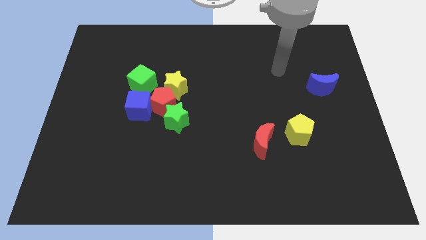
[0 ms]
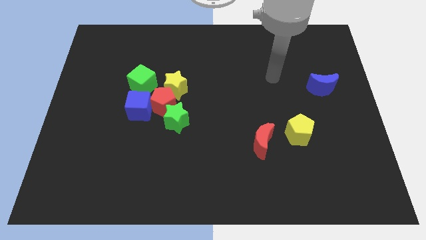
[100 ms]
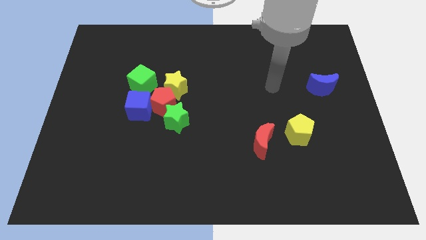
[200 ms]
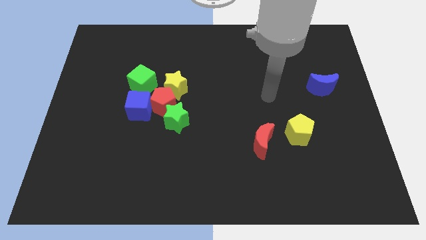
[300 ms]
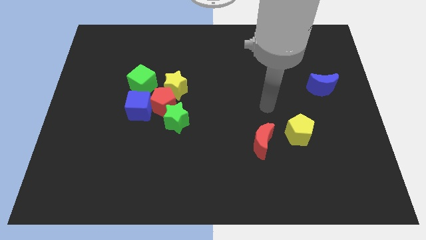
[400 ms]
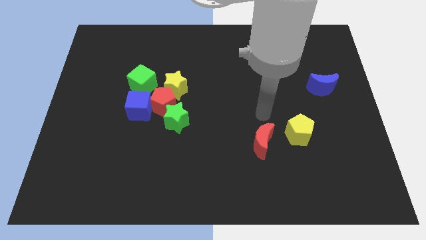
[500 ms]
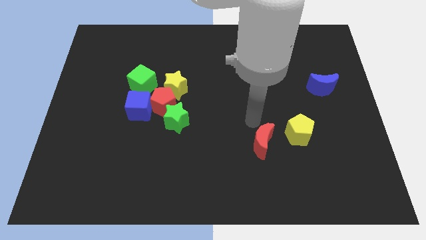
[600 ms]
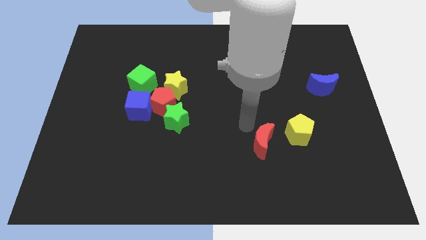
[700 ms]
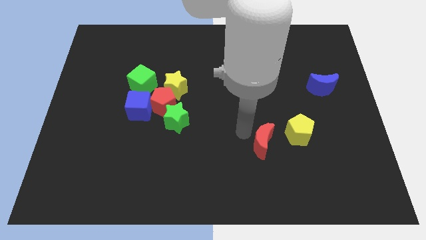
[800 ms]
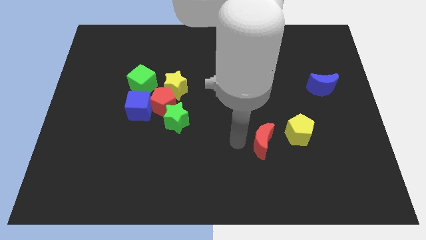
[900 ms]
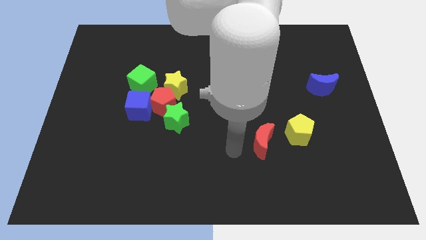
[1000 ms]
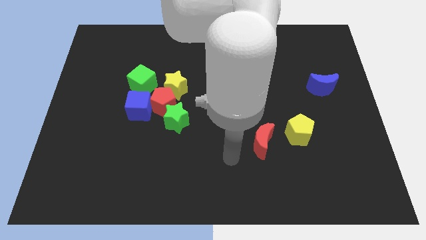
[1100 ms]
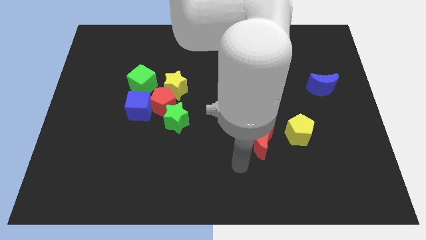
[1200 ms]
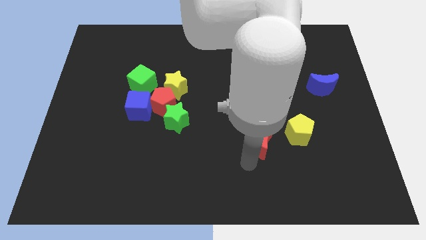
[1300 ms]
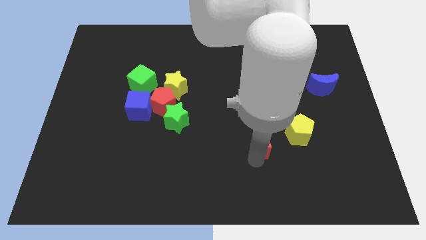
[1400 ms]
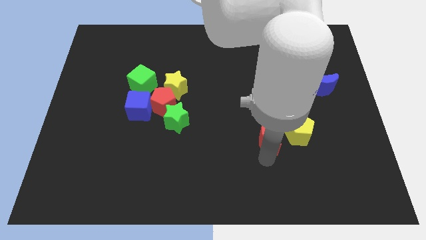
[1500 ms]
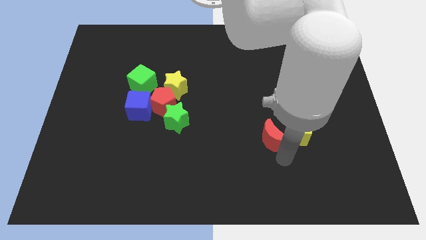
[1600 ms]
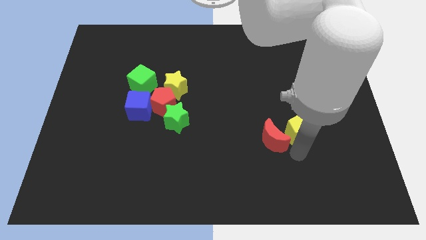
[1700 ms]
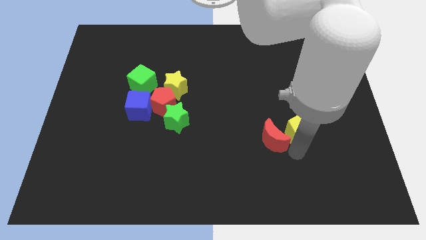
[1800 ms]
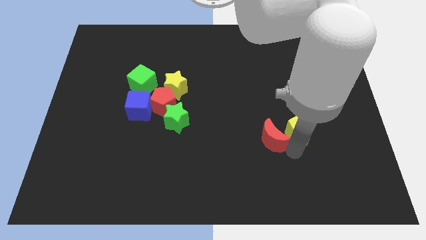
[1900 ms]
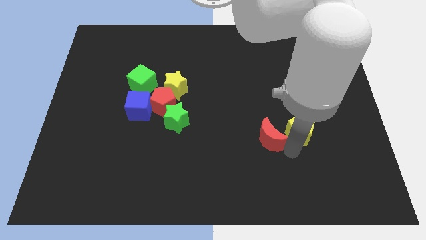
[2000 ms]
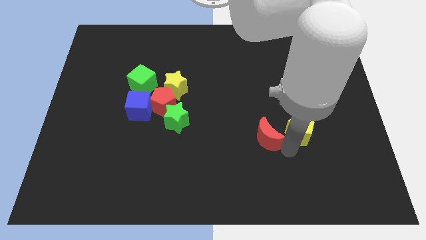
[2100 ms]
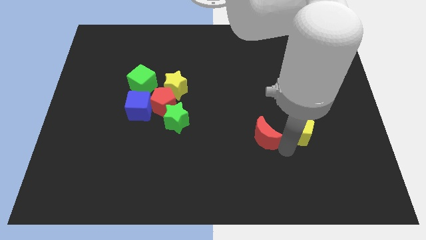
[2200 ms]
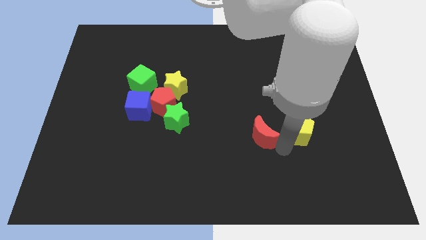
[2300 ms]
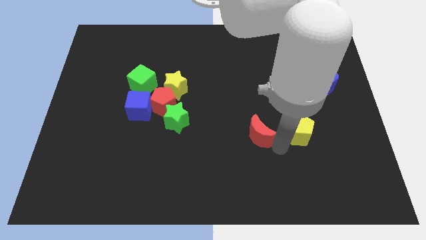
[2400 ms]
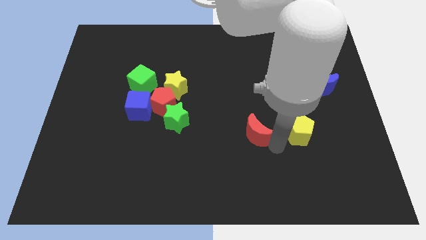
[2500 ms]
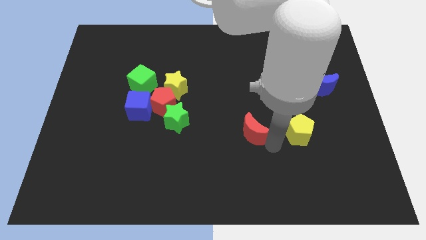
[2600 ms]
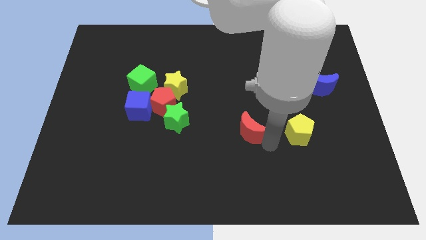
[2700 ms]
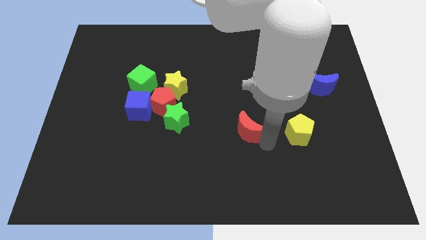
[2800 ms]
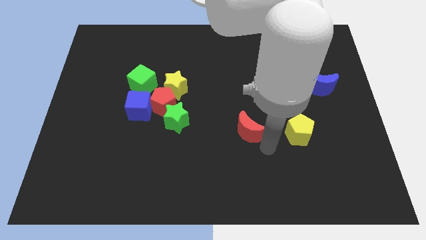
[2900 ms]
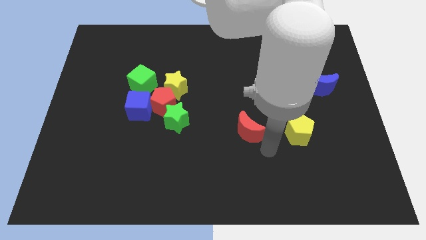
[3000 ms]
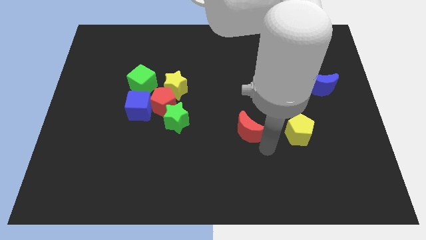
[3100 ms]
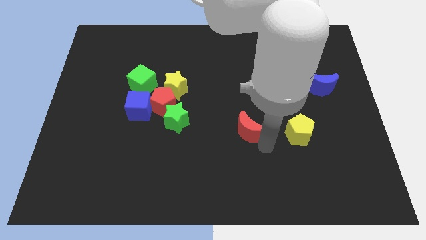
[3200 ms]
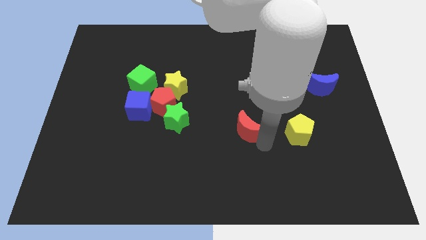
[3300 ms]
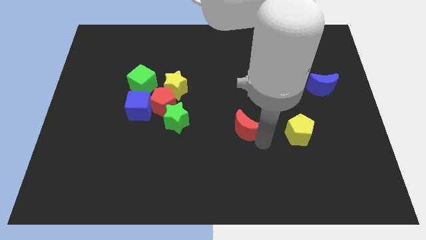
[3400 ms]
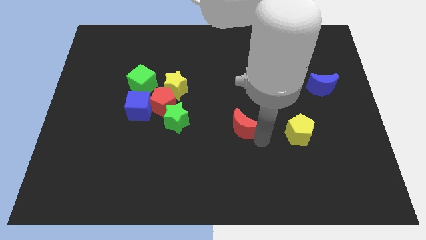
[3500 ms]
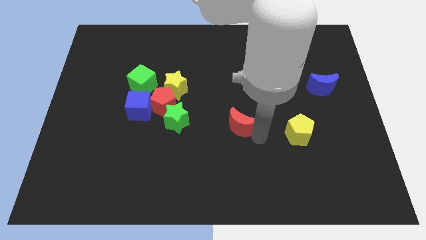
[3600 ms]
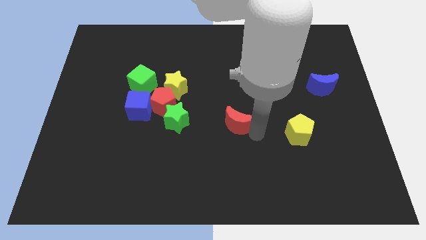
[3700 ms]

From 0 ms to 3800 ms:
move the red moon up and left diagonally a bit

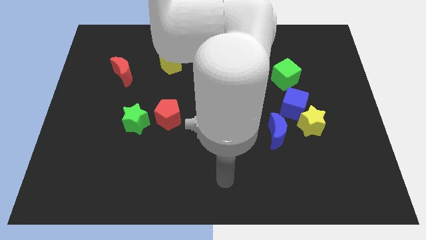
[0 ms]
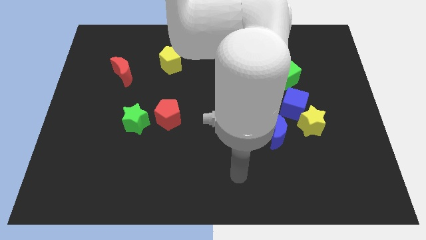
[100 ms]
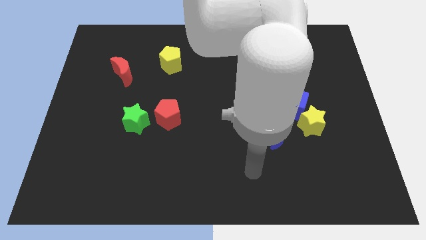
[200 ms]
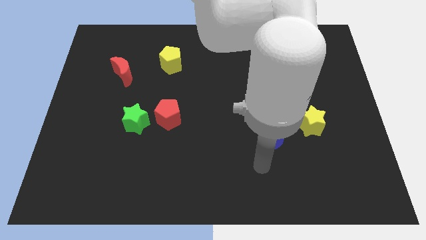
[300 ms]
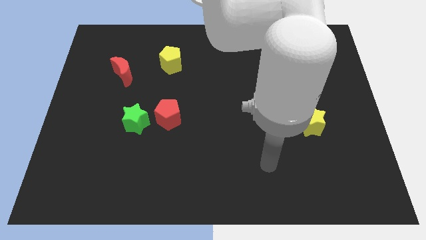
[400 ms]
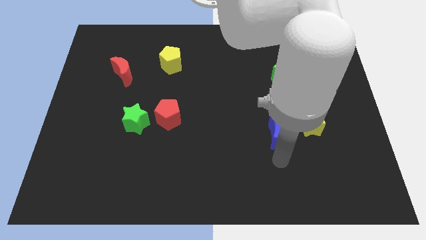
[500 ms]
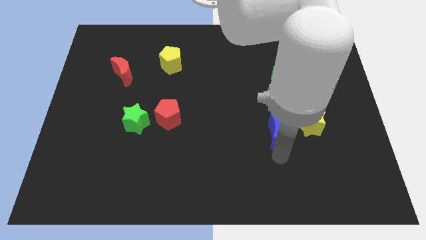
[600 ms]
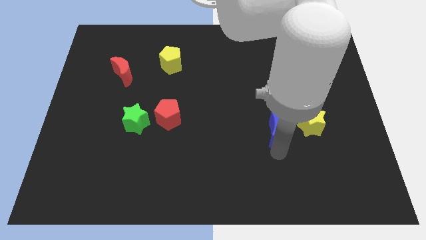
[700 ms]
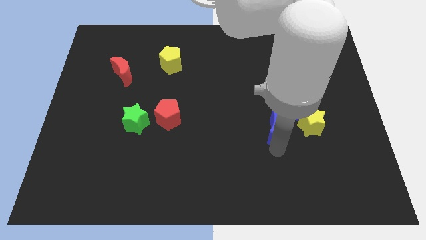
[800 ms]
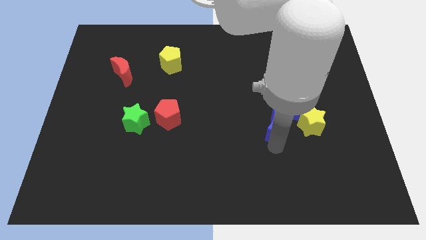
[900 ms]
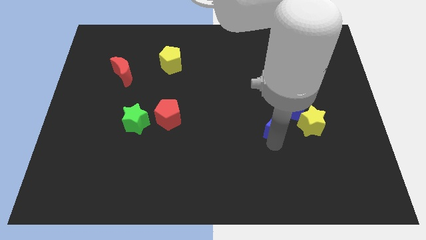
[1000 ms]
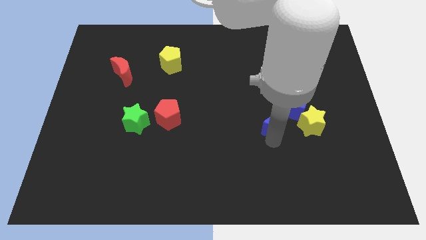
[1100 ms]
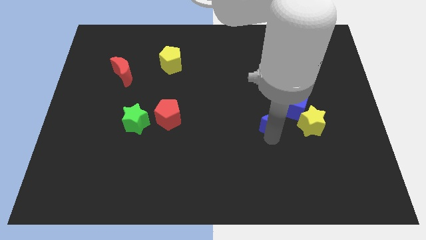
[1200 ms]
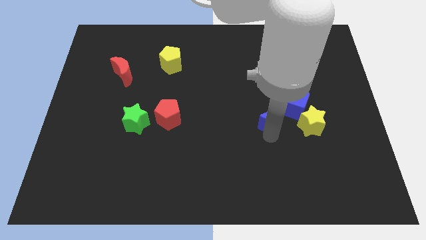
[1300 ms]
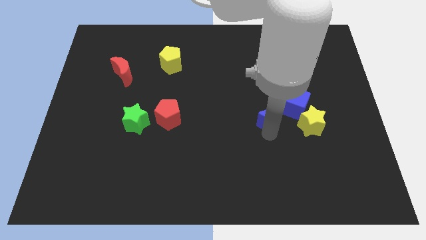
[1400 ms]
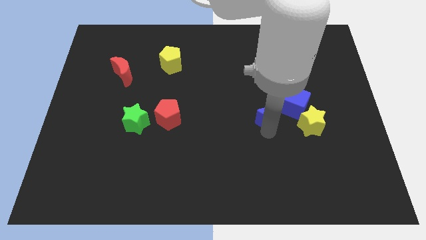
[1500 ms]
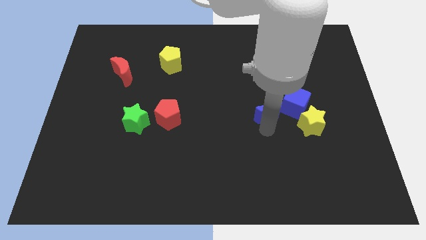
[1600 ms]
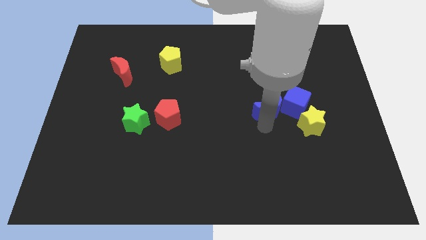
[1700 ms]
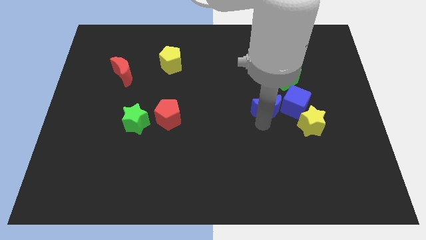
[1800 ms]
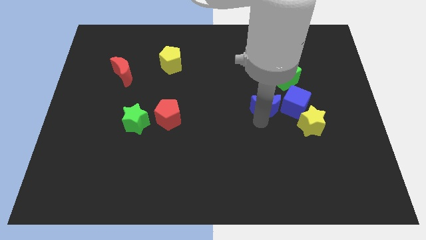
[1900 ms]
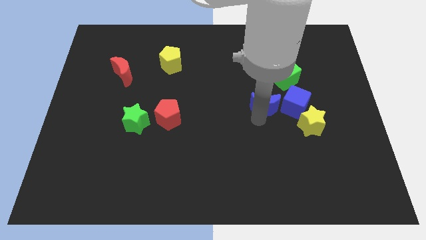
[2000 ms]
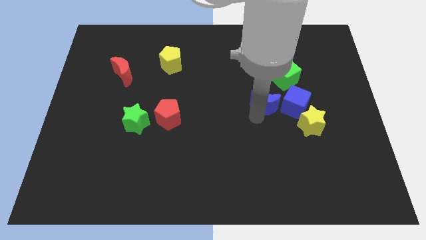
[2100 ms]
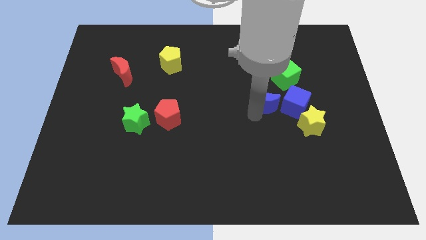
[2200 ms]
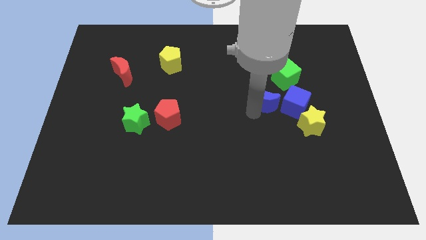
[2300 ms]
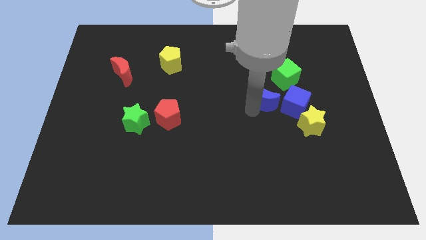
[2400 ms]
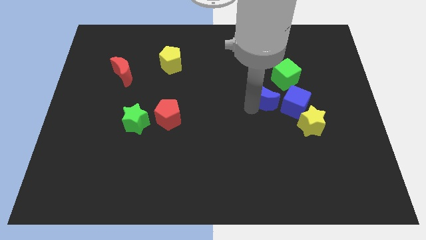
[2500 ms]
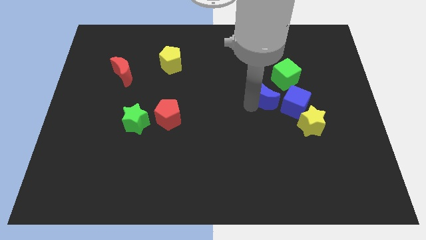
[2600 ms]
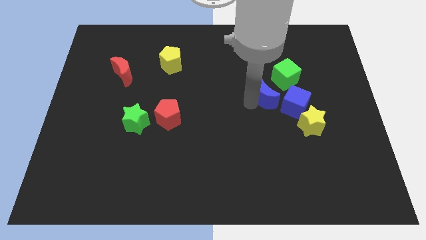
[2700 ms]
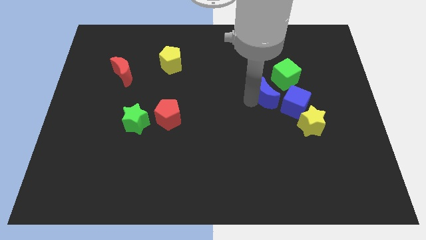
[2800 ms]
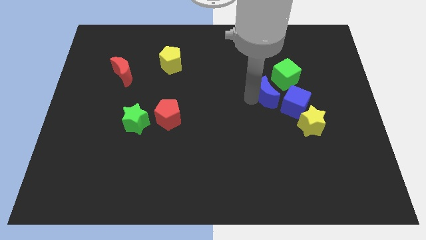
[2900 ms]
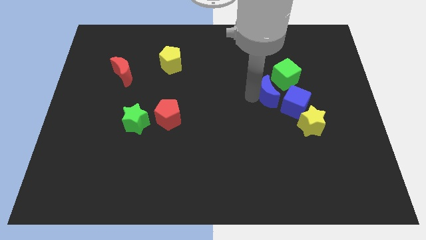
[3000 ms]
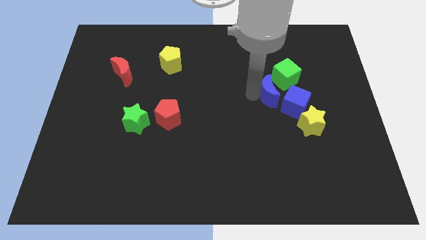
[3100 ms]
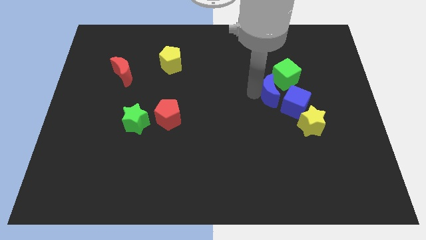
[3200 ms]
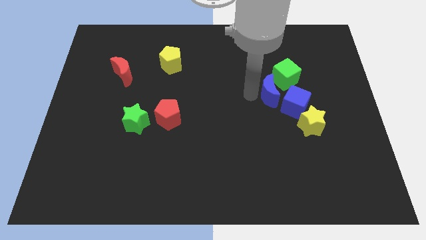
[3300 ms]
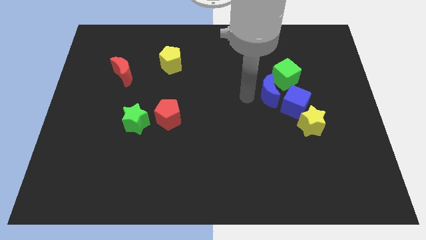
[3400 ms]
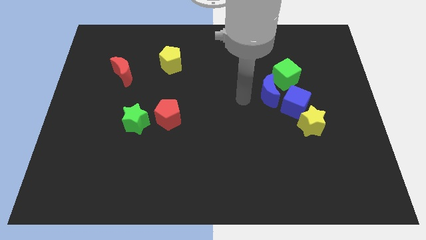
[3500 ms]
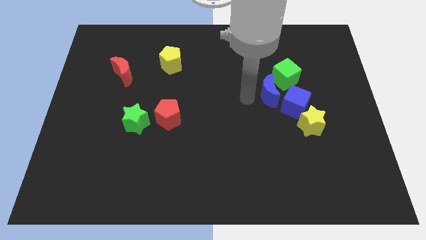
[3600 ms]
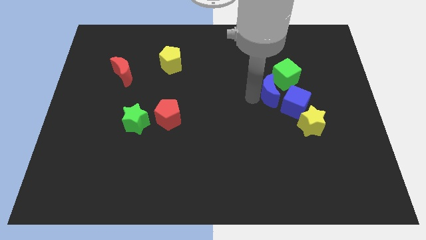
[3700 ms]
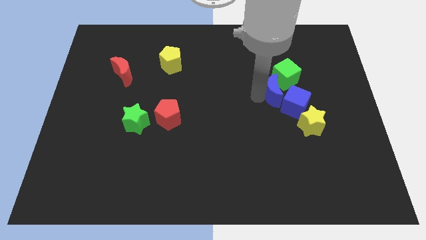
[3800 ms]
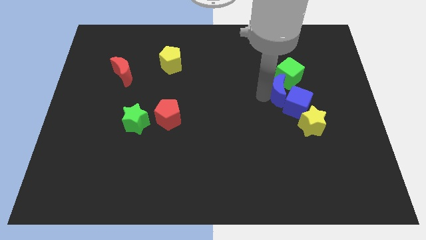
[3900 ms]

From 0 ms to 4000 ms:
move the blue moon slightly upwards and to the right

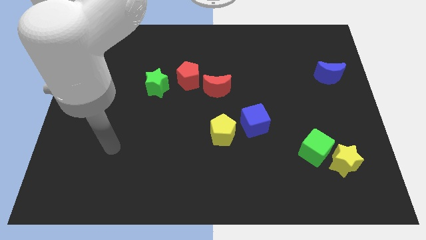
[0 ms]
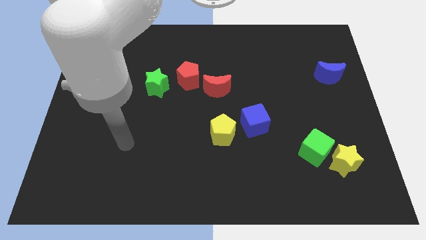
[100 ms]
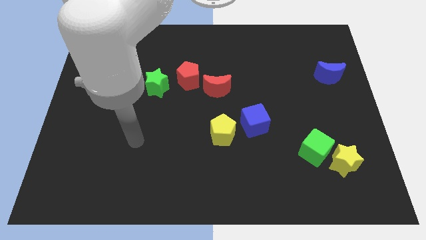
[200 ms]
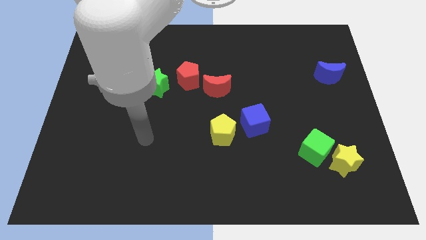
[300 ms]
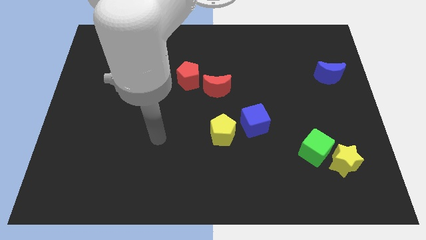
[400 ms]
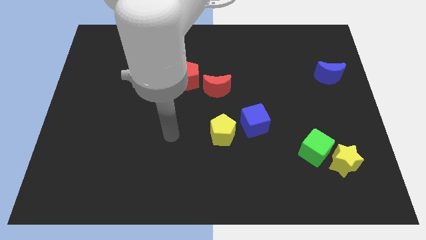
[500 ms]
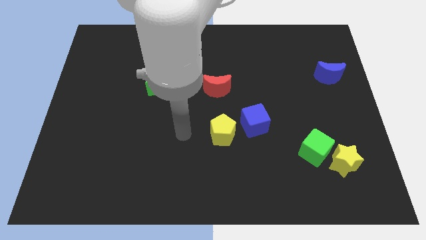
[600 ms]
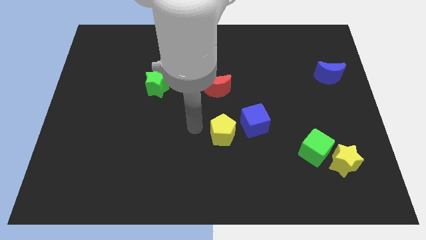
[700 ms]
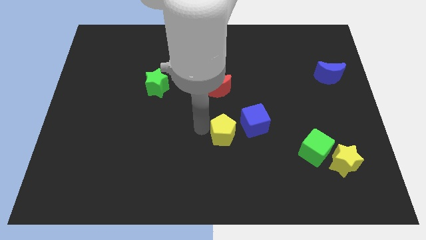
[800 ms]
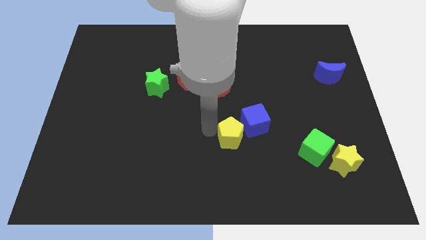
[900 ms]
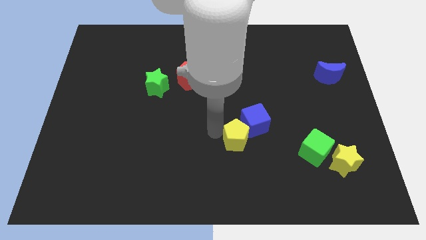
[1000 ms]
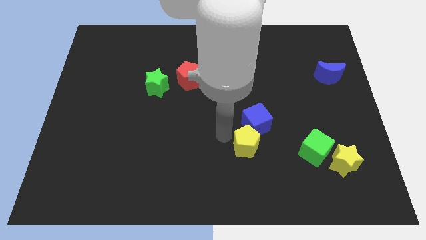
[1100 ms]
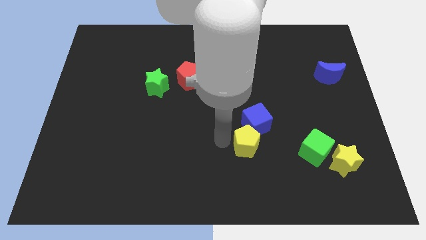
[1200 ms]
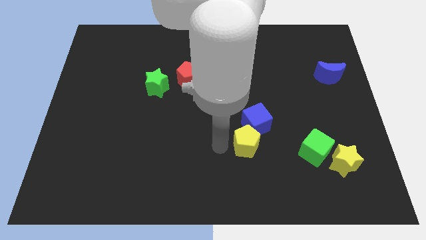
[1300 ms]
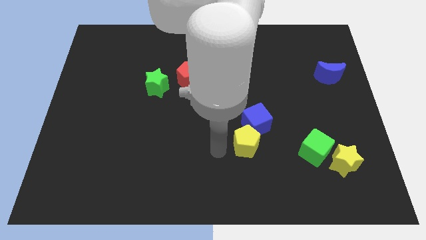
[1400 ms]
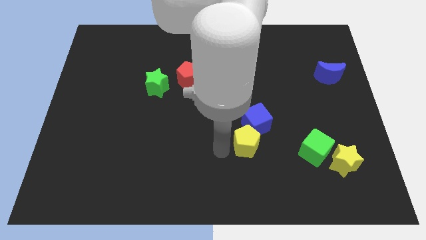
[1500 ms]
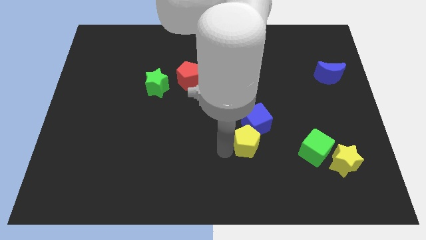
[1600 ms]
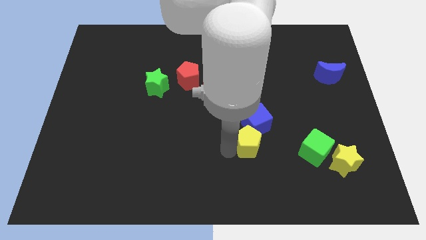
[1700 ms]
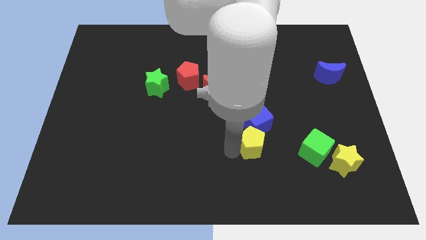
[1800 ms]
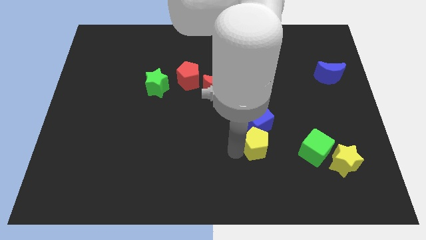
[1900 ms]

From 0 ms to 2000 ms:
push the yellow pentagon to the right a little
